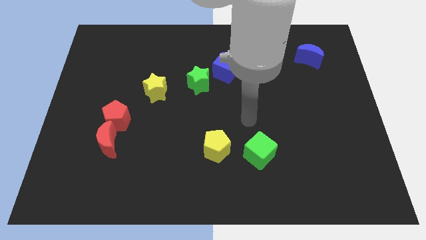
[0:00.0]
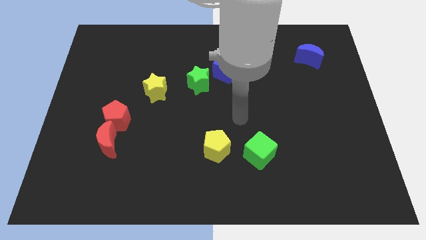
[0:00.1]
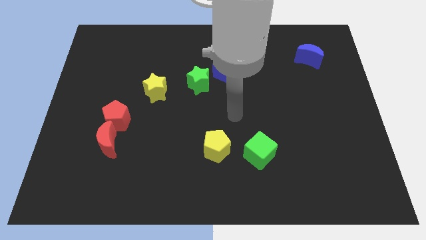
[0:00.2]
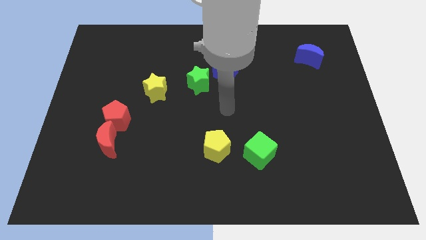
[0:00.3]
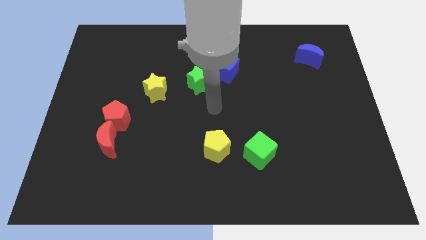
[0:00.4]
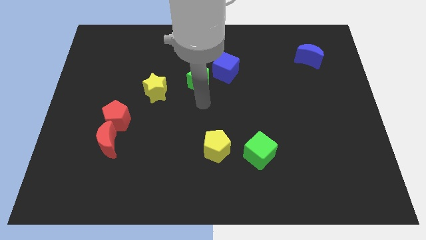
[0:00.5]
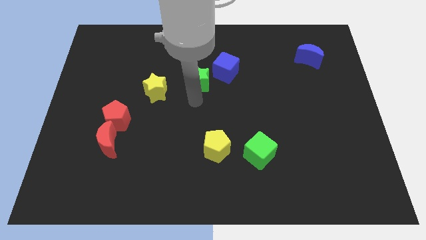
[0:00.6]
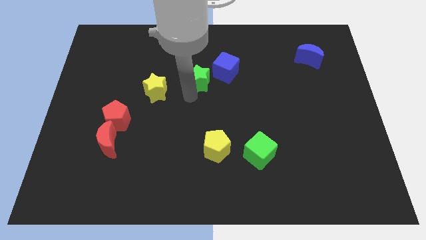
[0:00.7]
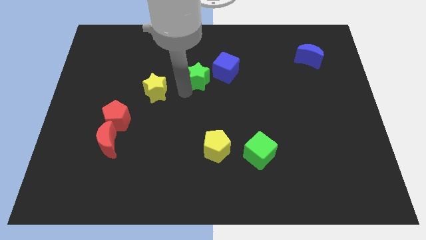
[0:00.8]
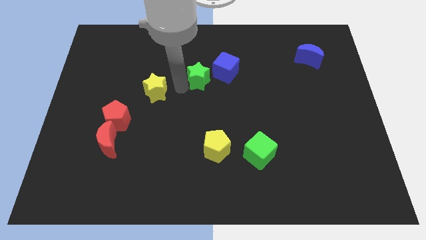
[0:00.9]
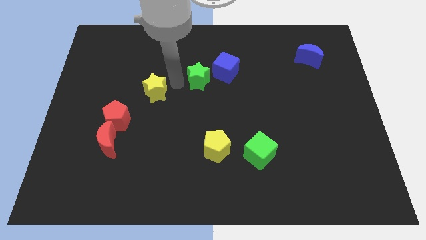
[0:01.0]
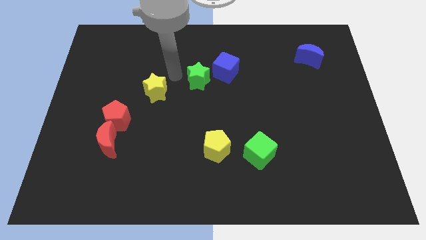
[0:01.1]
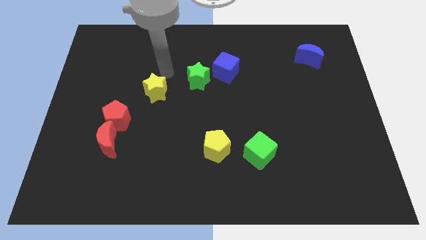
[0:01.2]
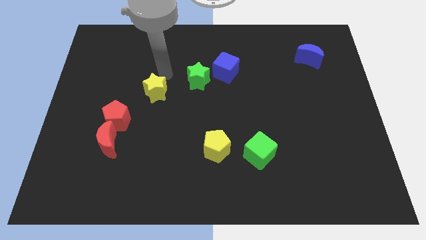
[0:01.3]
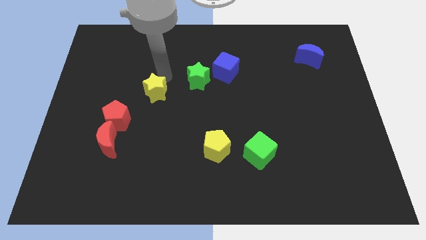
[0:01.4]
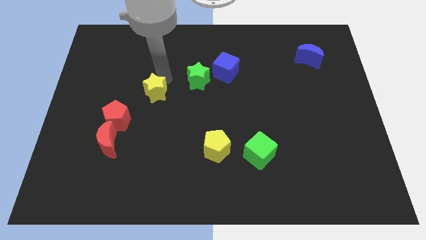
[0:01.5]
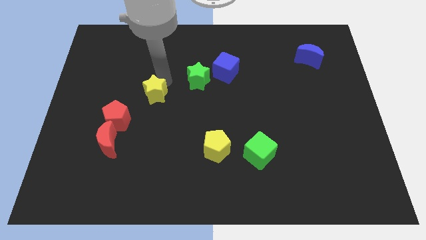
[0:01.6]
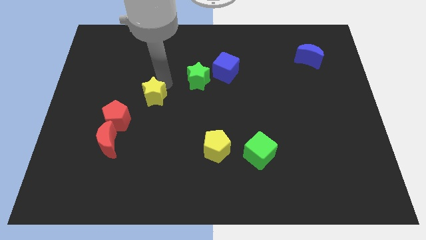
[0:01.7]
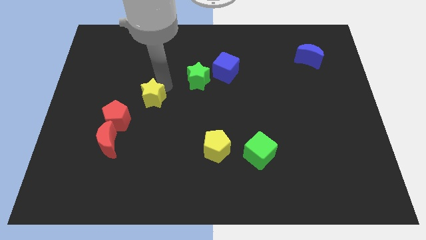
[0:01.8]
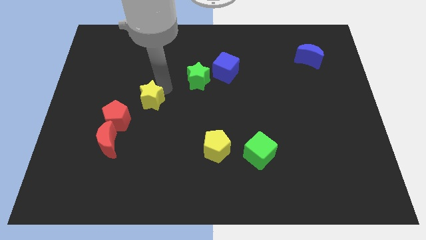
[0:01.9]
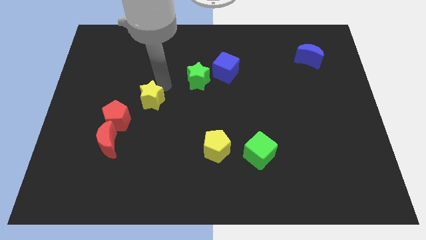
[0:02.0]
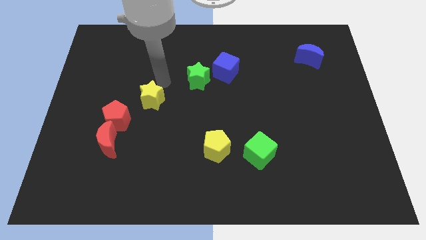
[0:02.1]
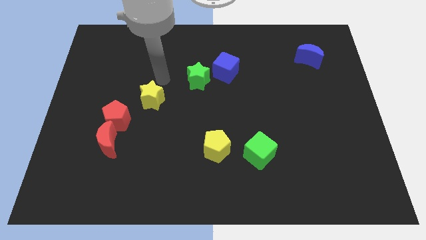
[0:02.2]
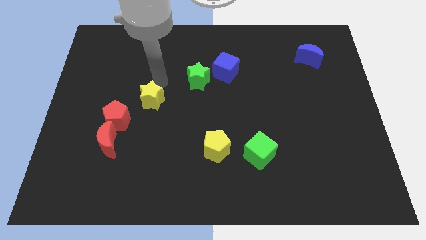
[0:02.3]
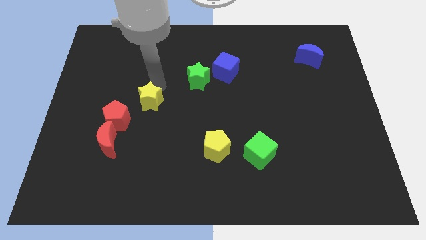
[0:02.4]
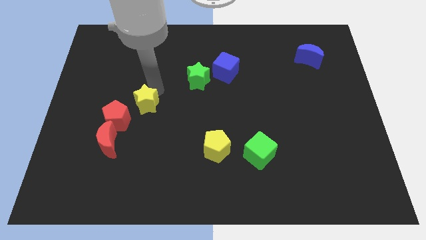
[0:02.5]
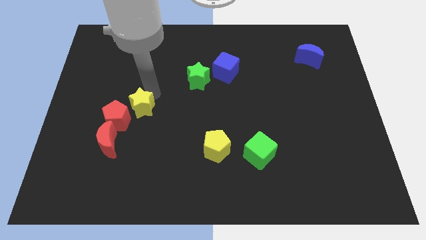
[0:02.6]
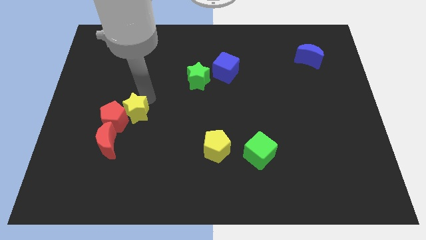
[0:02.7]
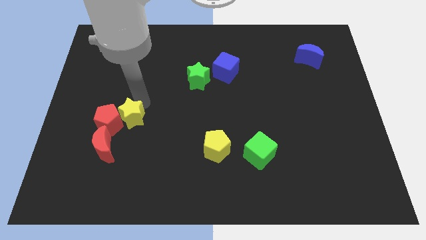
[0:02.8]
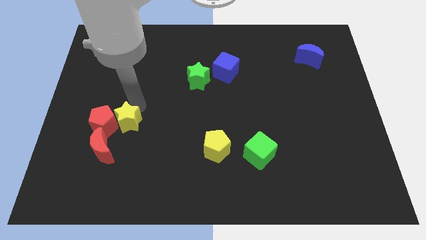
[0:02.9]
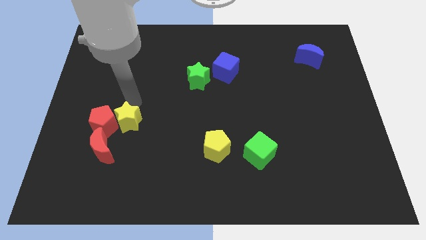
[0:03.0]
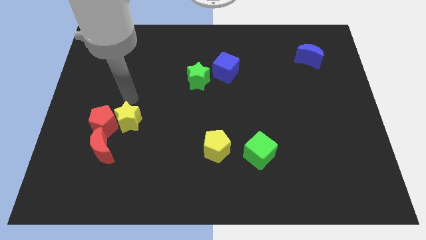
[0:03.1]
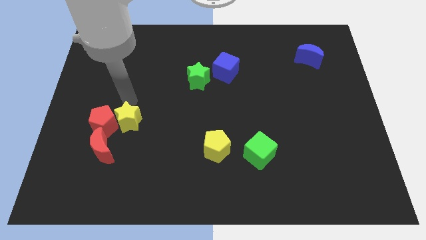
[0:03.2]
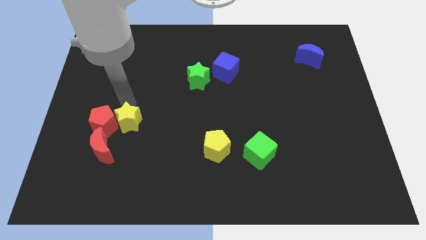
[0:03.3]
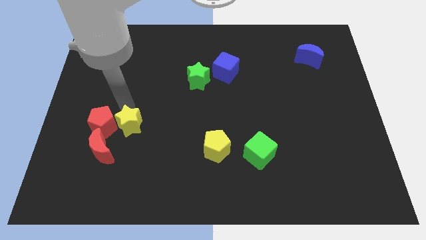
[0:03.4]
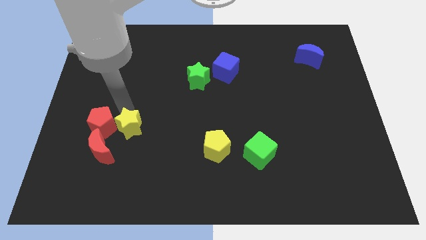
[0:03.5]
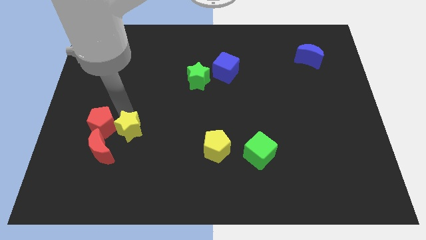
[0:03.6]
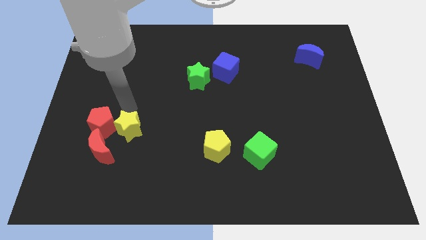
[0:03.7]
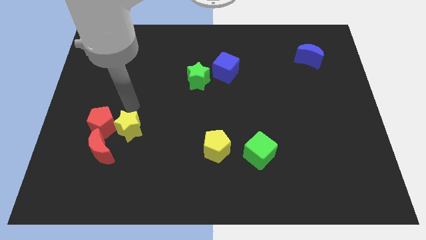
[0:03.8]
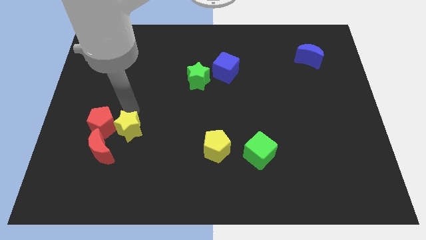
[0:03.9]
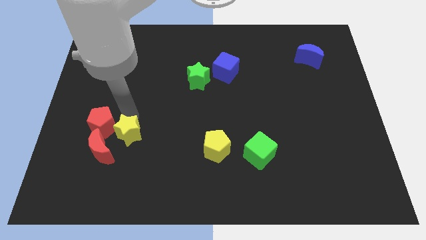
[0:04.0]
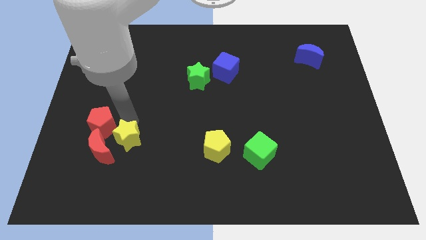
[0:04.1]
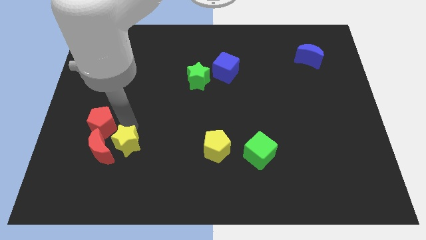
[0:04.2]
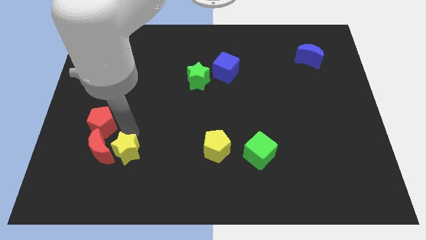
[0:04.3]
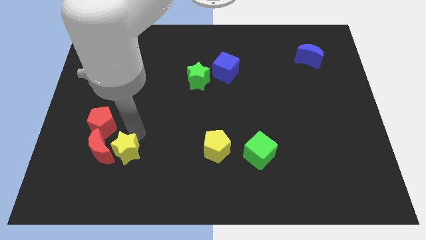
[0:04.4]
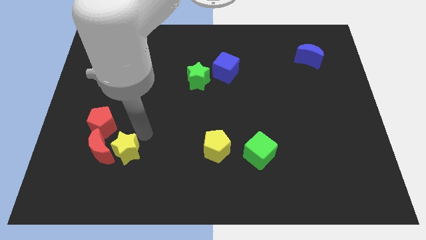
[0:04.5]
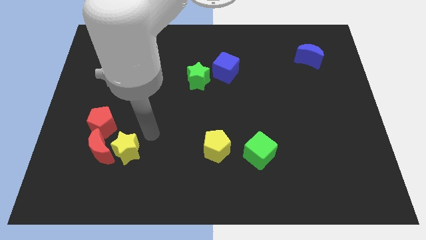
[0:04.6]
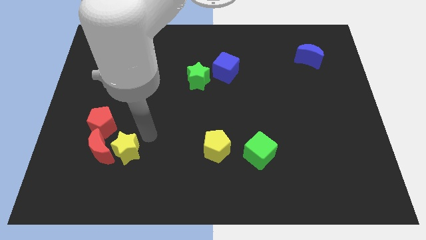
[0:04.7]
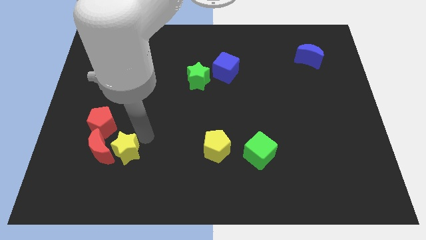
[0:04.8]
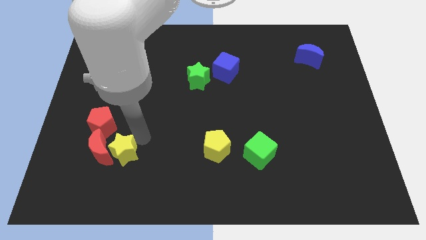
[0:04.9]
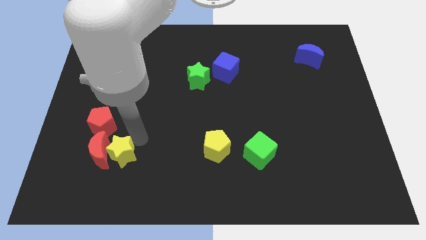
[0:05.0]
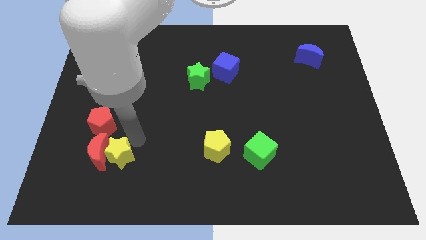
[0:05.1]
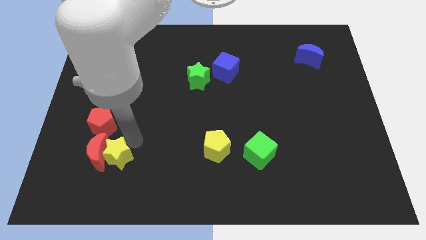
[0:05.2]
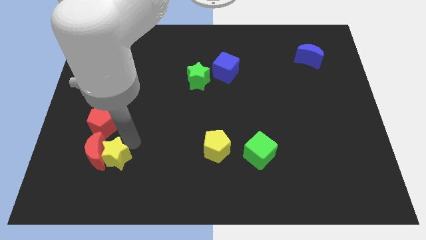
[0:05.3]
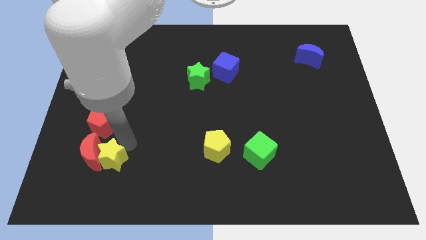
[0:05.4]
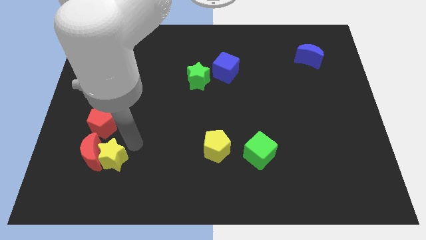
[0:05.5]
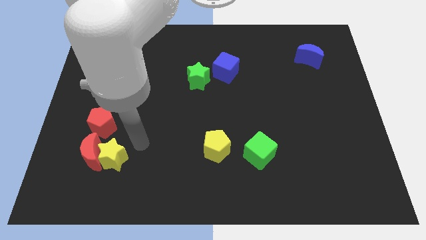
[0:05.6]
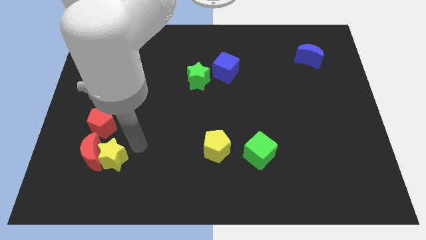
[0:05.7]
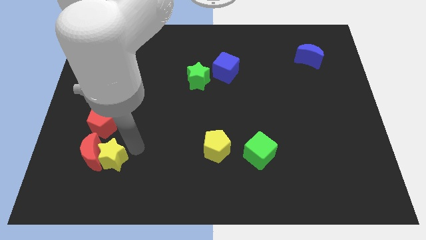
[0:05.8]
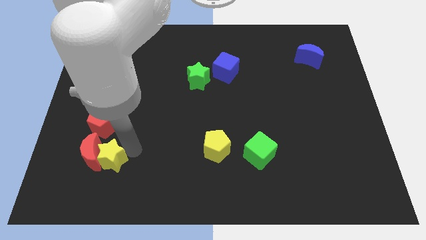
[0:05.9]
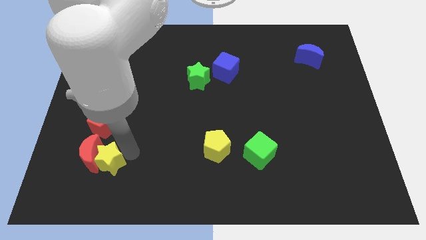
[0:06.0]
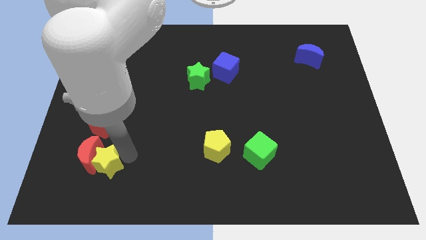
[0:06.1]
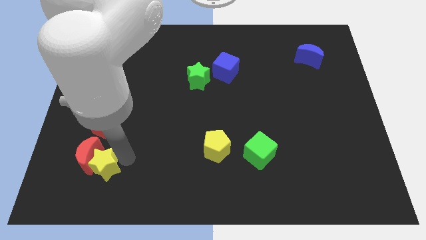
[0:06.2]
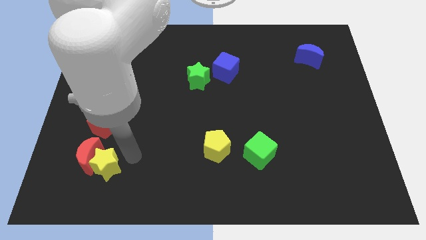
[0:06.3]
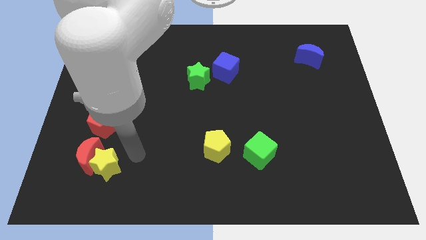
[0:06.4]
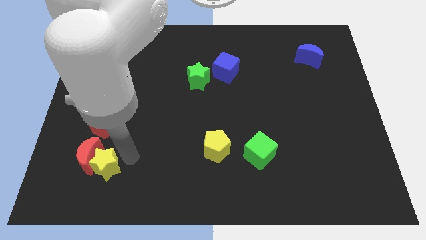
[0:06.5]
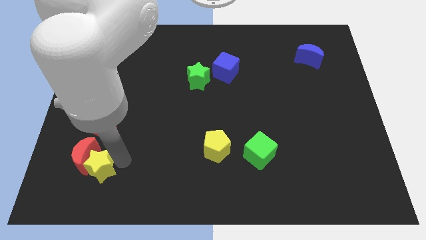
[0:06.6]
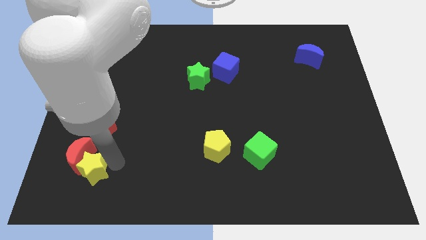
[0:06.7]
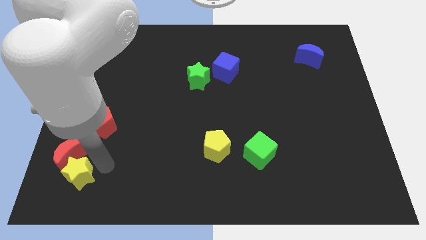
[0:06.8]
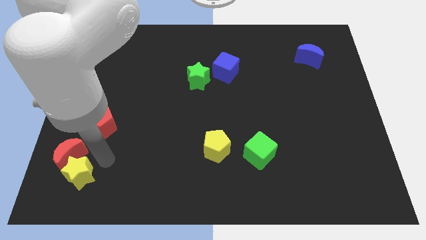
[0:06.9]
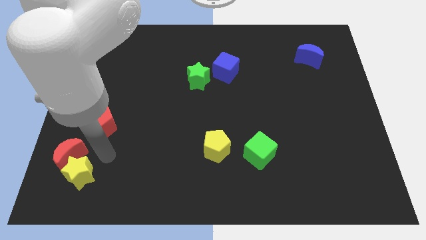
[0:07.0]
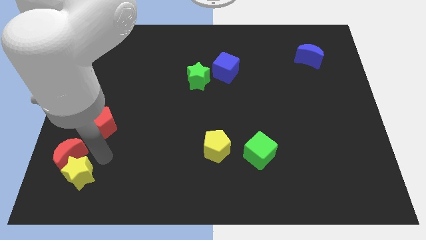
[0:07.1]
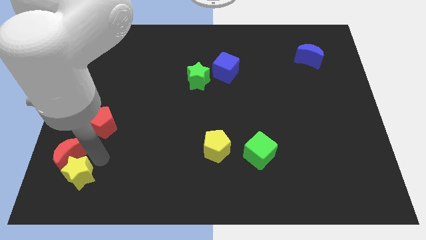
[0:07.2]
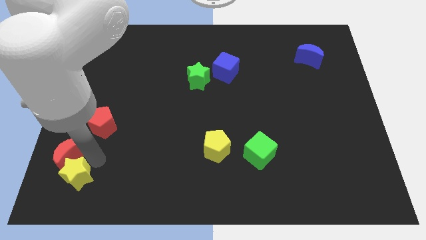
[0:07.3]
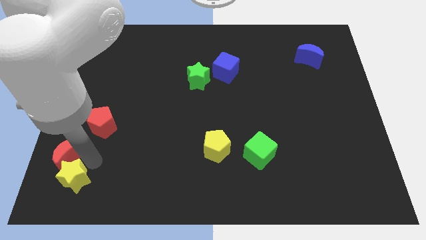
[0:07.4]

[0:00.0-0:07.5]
slide the yellow star to the bottom left of the board
